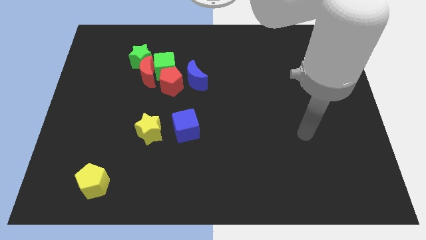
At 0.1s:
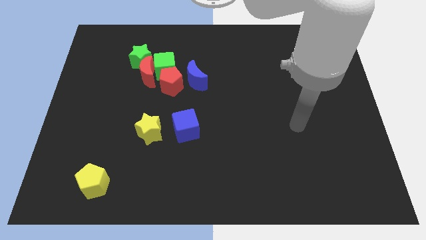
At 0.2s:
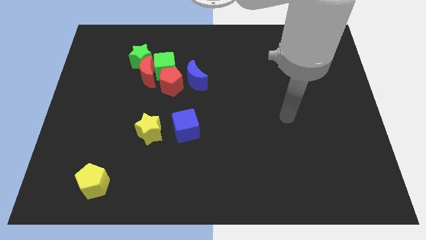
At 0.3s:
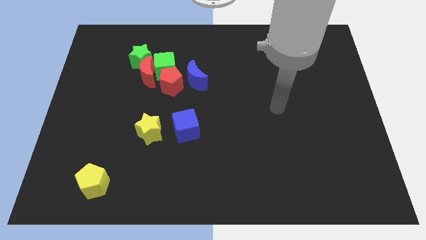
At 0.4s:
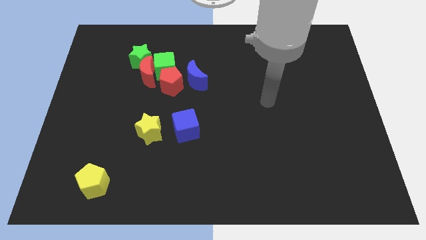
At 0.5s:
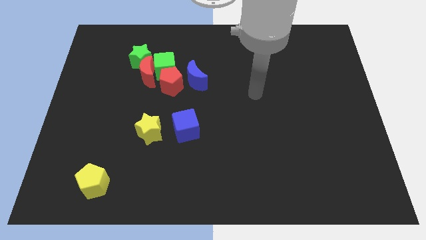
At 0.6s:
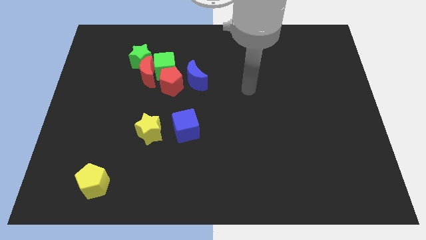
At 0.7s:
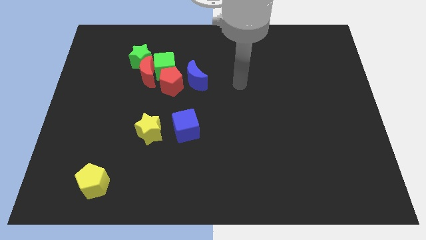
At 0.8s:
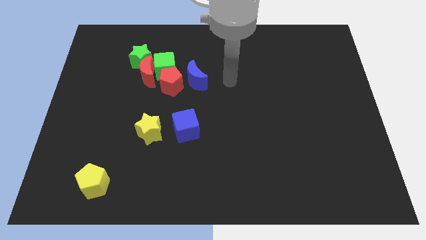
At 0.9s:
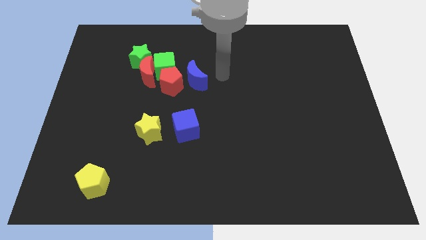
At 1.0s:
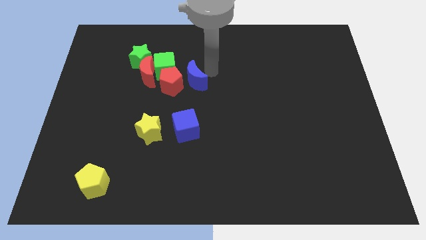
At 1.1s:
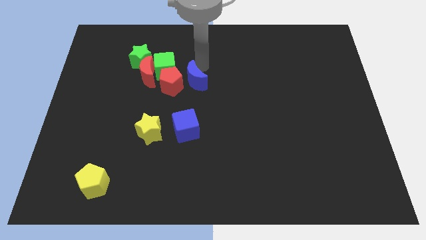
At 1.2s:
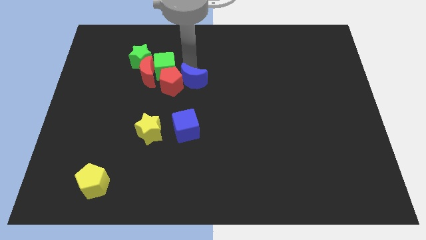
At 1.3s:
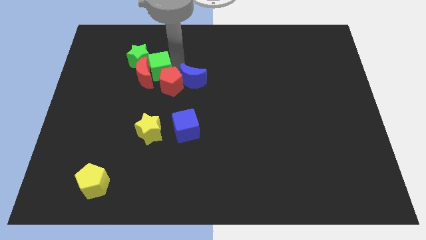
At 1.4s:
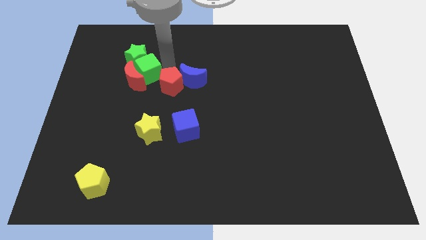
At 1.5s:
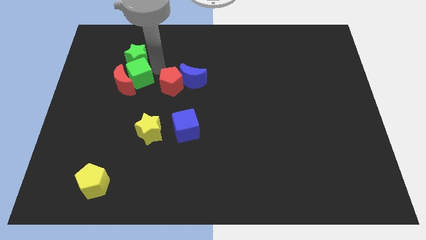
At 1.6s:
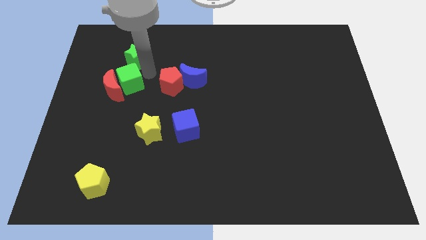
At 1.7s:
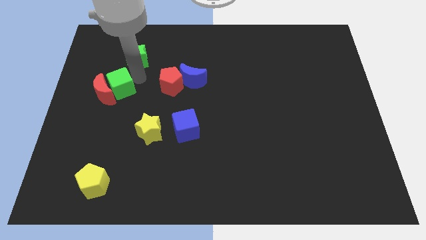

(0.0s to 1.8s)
move the red moon away from the group of blocks

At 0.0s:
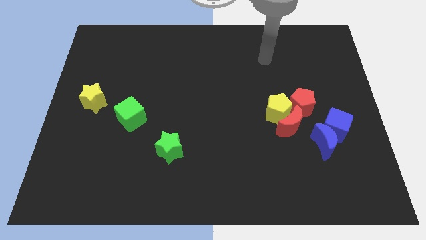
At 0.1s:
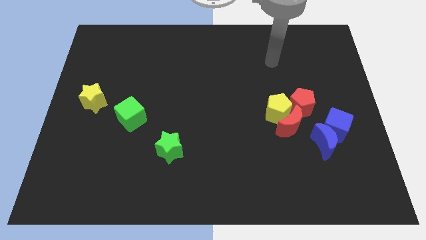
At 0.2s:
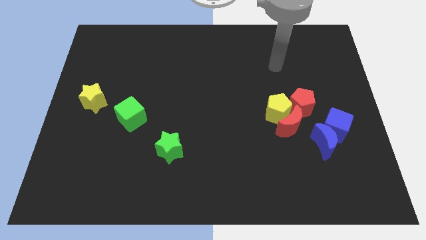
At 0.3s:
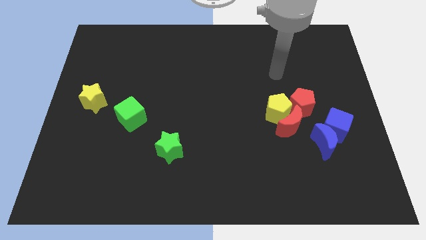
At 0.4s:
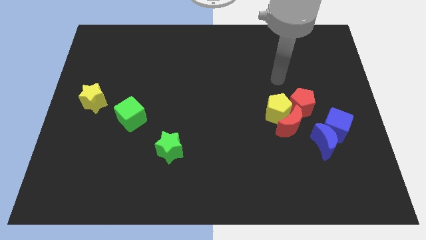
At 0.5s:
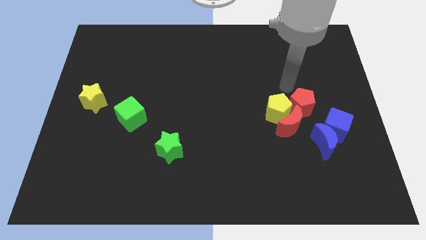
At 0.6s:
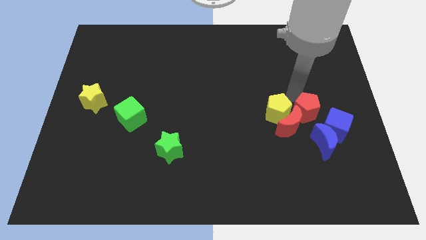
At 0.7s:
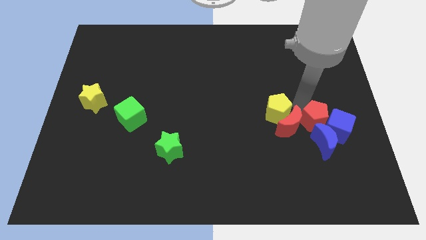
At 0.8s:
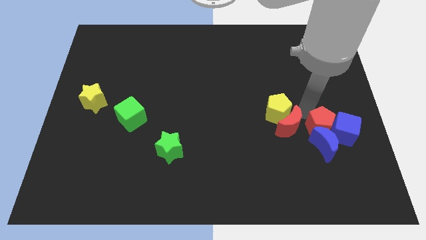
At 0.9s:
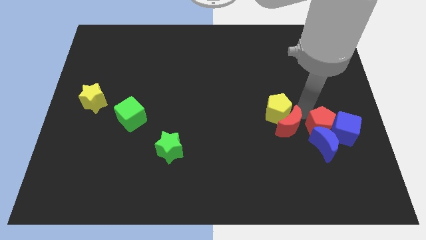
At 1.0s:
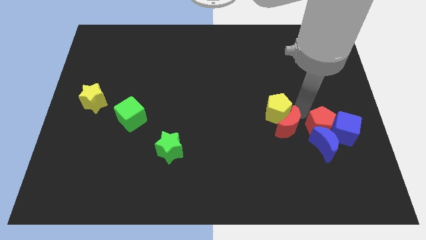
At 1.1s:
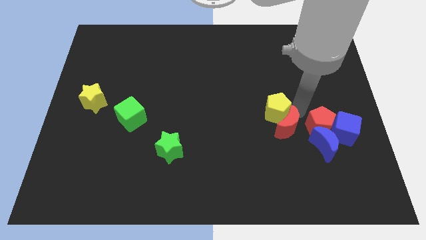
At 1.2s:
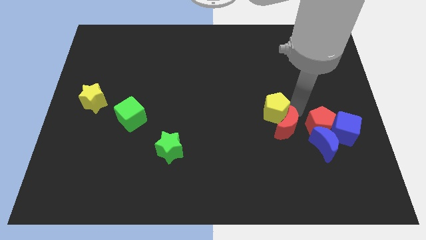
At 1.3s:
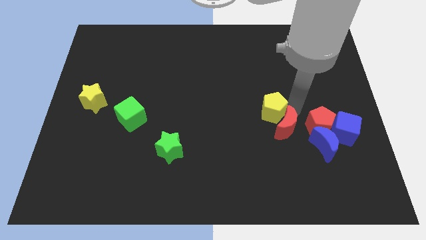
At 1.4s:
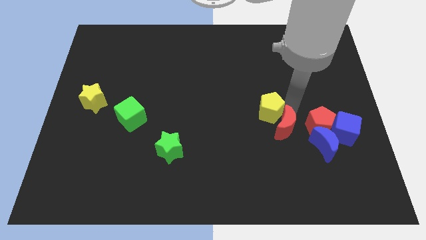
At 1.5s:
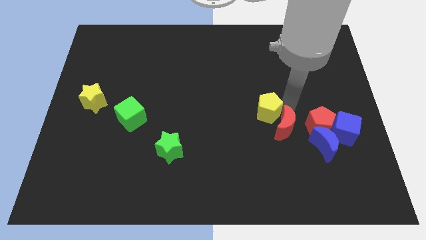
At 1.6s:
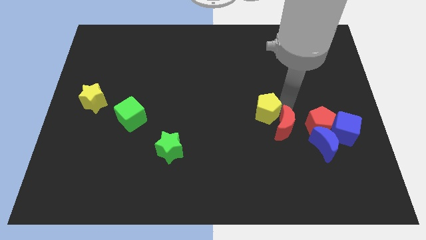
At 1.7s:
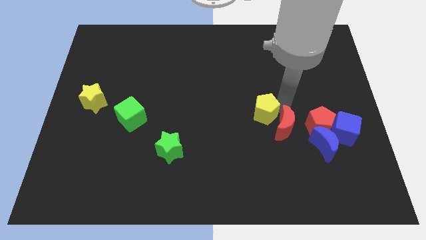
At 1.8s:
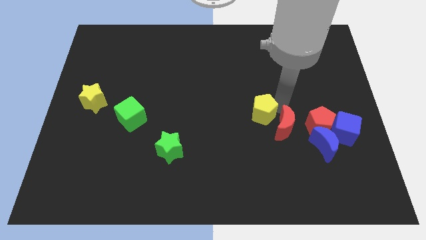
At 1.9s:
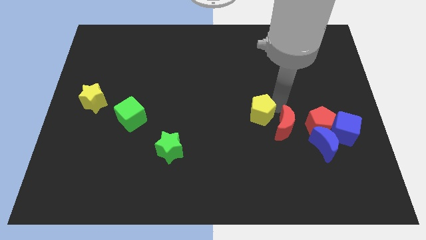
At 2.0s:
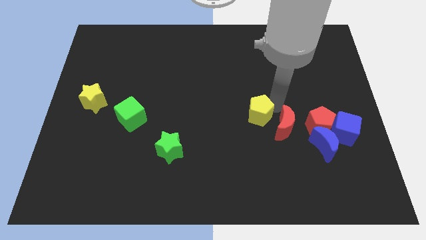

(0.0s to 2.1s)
separate the yellow pentagon from the red moon and red pentagon

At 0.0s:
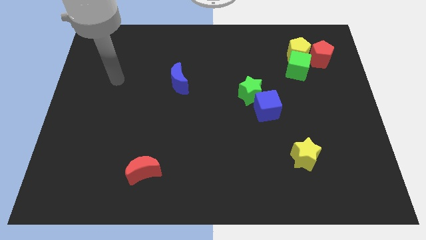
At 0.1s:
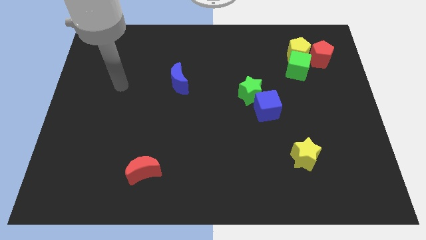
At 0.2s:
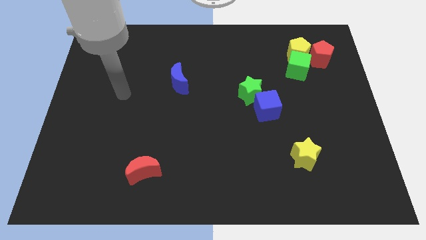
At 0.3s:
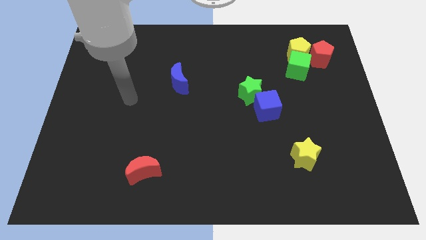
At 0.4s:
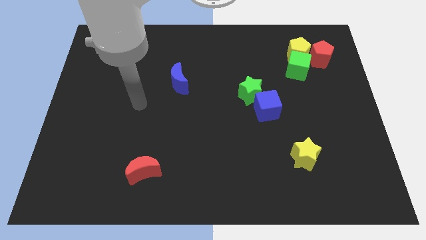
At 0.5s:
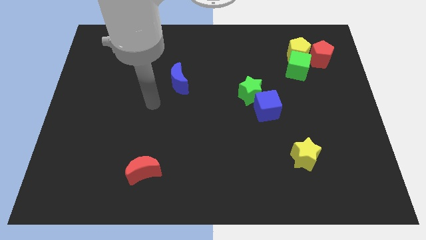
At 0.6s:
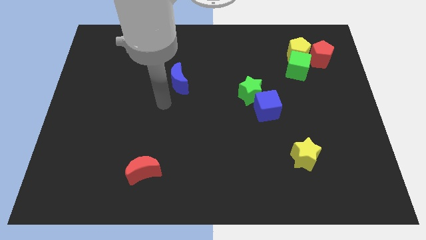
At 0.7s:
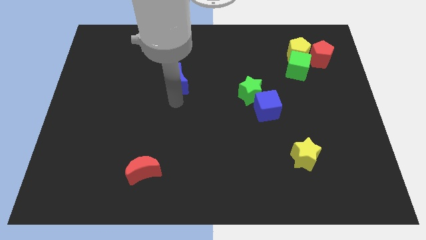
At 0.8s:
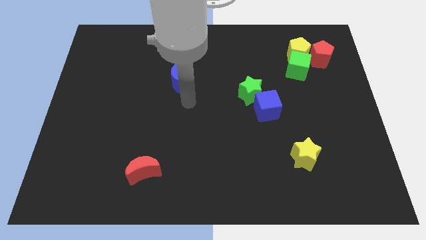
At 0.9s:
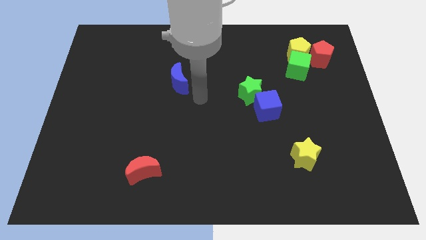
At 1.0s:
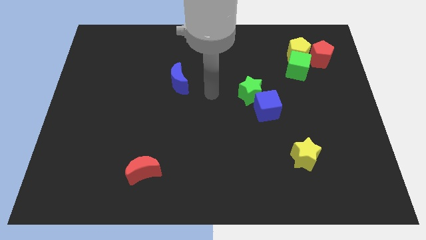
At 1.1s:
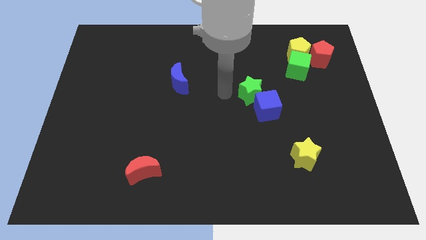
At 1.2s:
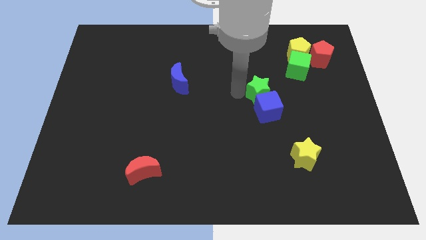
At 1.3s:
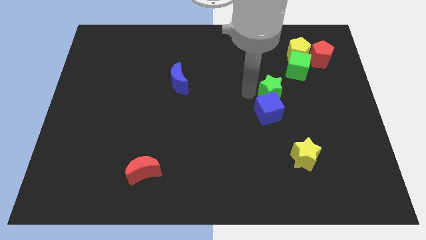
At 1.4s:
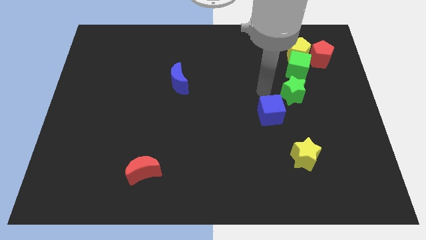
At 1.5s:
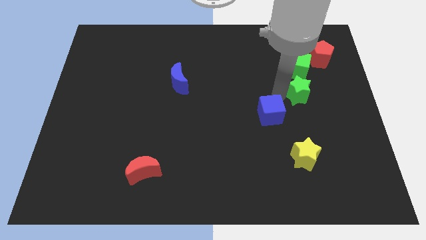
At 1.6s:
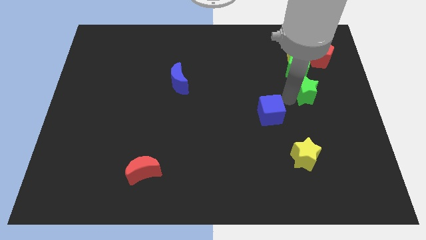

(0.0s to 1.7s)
pull the blue cube apart from the green star

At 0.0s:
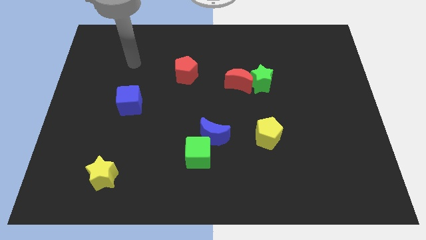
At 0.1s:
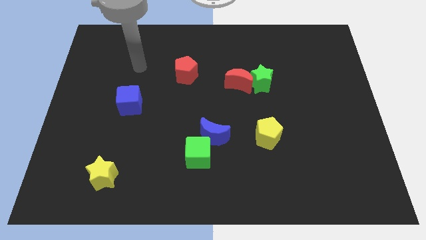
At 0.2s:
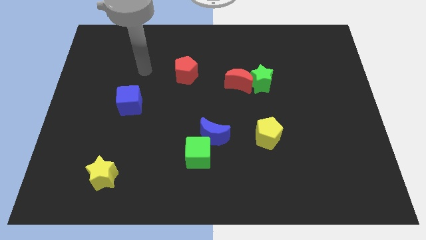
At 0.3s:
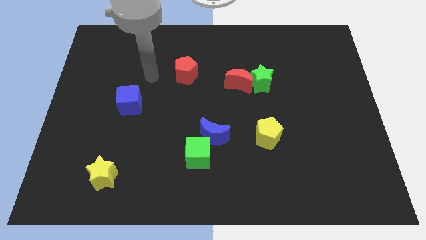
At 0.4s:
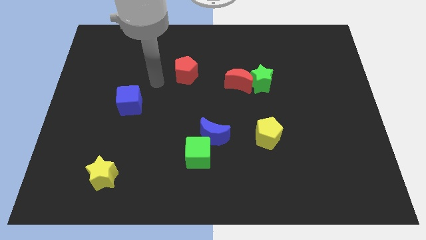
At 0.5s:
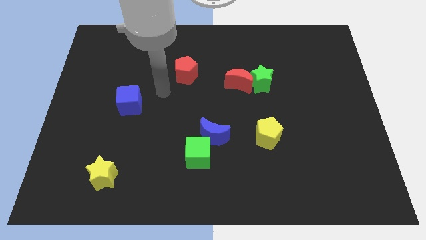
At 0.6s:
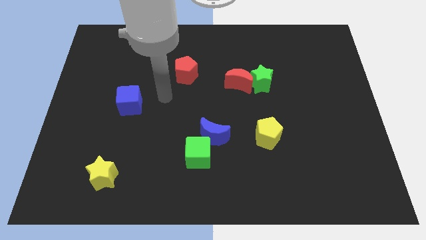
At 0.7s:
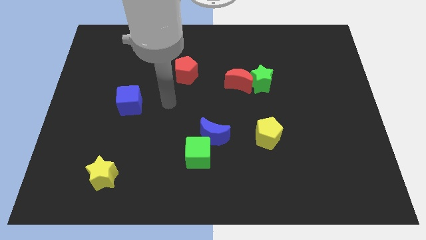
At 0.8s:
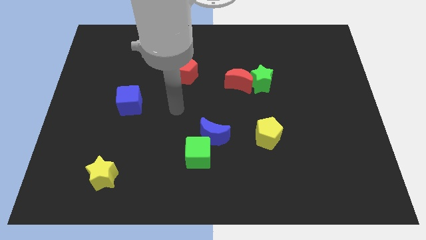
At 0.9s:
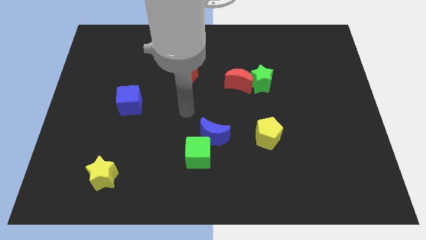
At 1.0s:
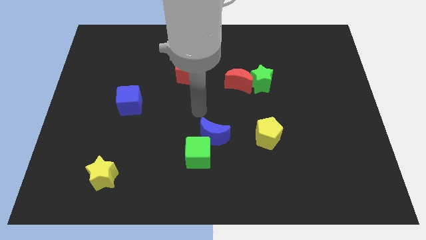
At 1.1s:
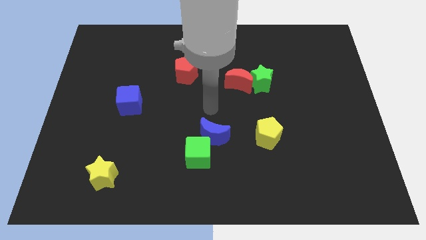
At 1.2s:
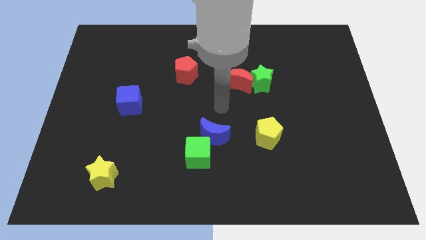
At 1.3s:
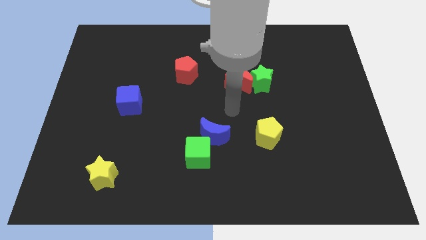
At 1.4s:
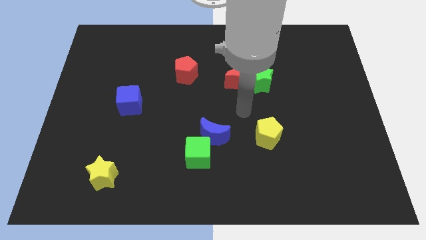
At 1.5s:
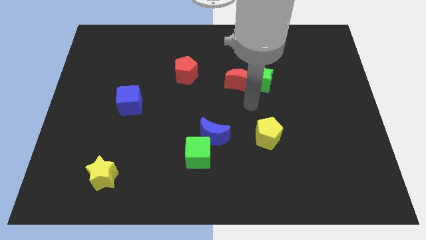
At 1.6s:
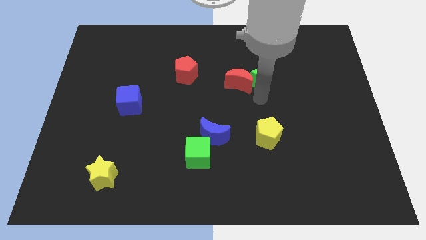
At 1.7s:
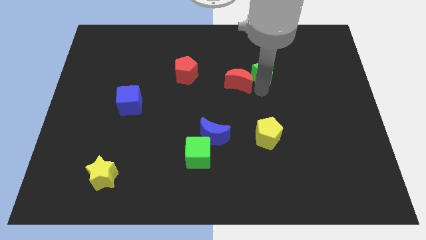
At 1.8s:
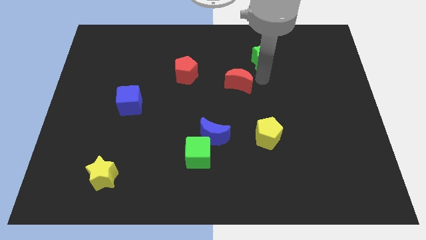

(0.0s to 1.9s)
move the red moon away from the green star

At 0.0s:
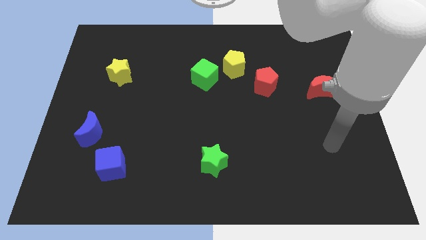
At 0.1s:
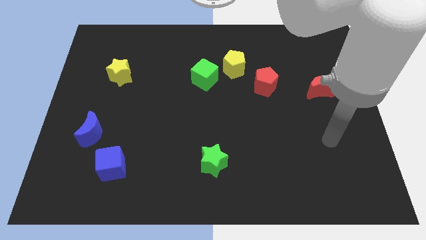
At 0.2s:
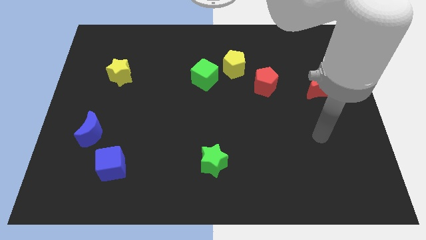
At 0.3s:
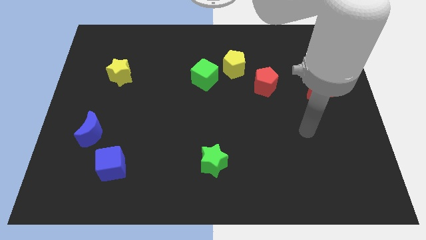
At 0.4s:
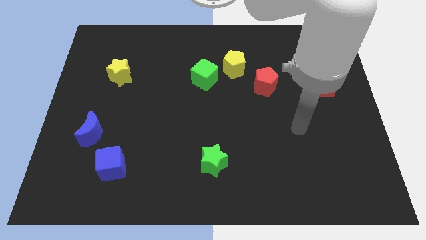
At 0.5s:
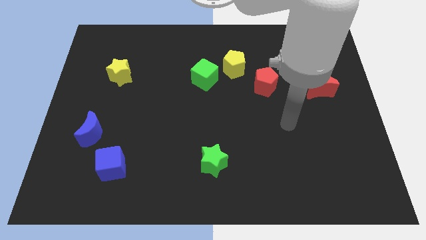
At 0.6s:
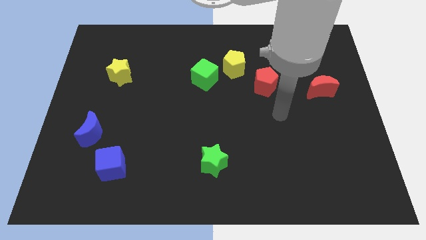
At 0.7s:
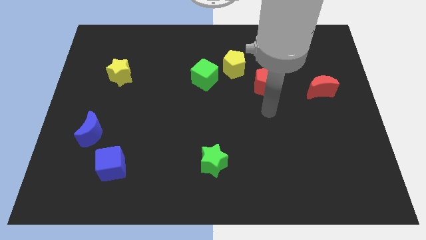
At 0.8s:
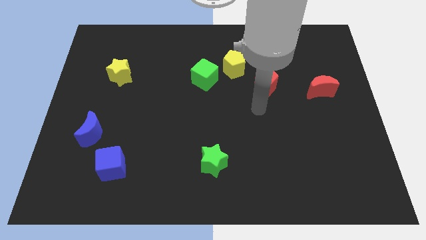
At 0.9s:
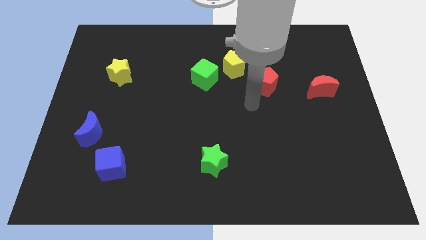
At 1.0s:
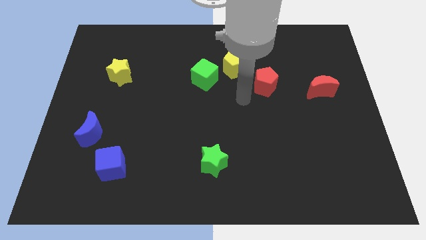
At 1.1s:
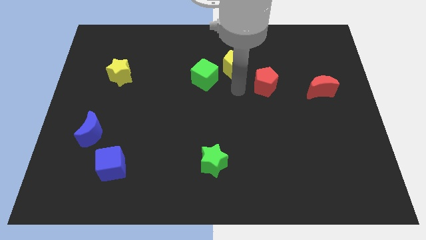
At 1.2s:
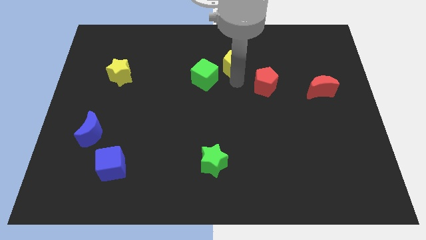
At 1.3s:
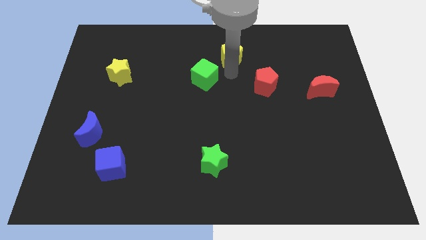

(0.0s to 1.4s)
separate the green cube from the yellow pentagon

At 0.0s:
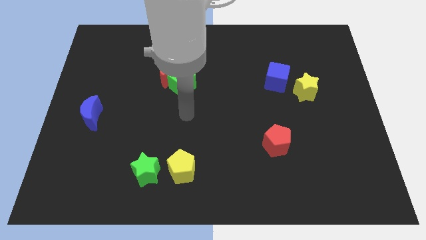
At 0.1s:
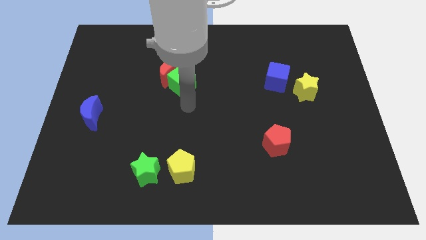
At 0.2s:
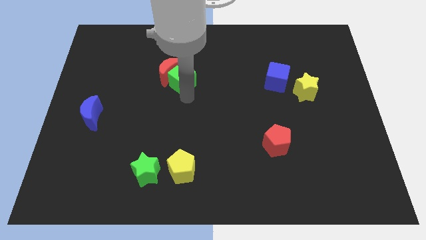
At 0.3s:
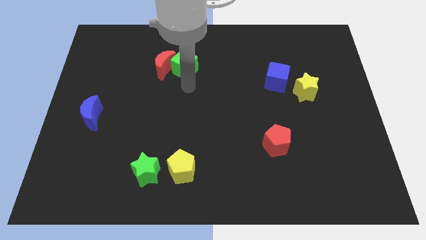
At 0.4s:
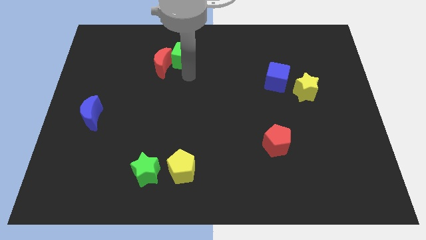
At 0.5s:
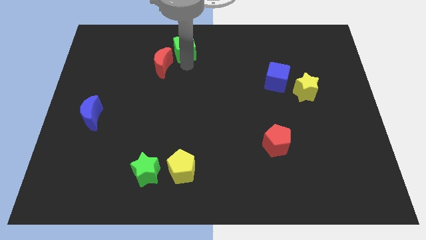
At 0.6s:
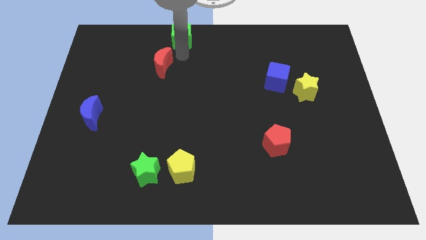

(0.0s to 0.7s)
pull the red moon apart from the green cube
